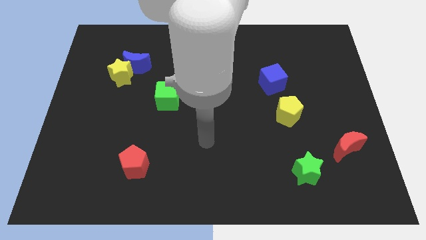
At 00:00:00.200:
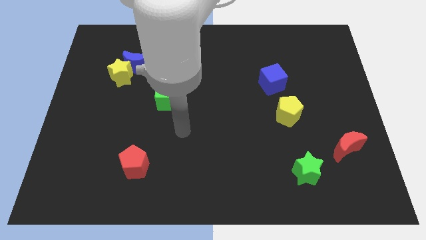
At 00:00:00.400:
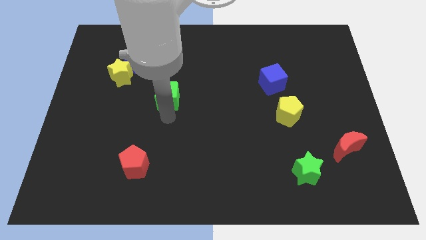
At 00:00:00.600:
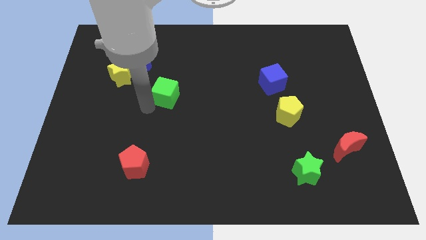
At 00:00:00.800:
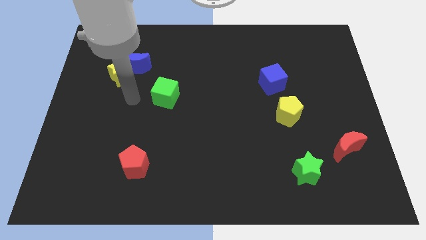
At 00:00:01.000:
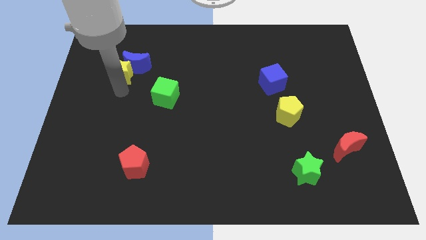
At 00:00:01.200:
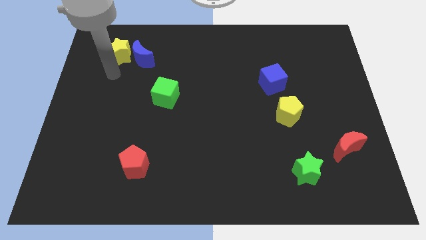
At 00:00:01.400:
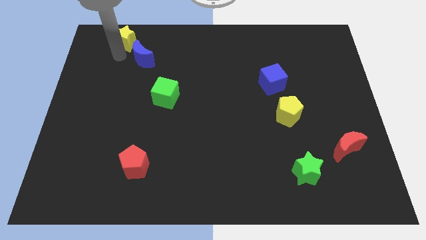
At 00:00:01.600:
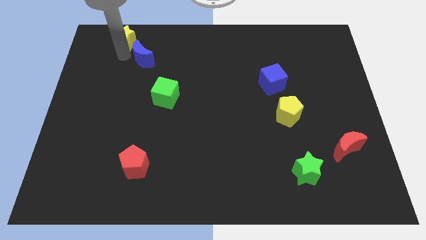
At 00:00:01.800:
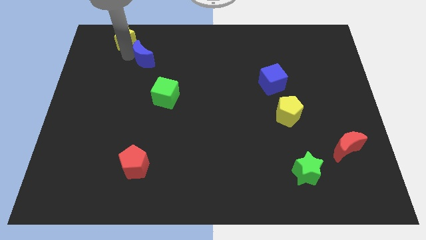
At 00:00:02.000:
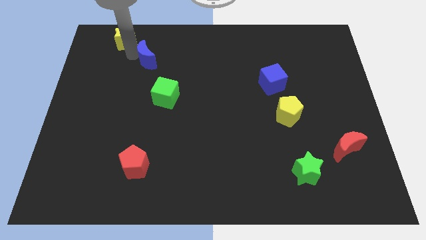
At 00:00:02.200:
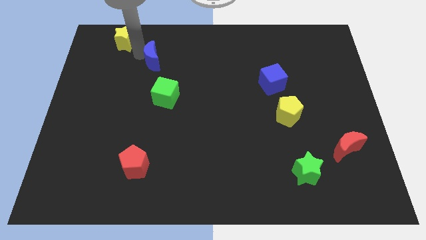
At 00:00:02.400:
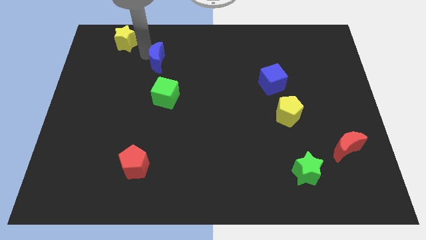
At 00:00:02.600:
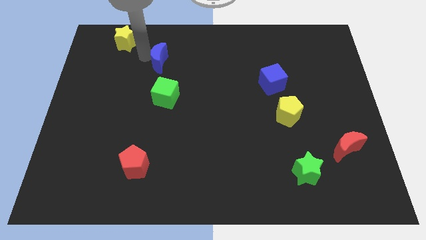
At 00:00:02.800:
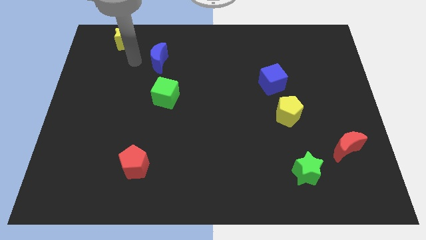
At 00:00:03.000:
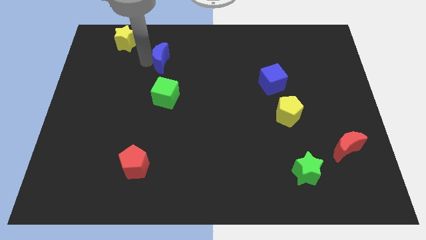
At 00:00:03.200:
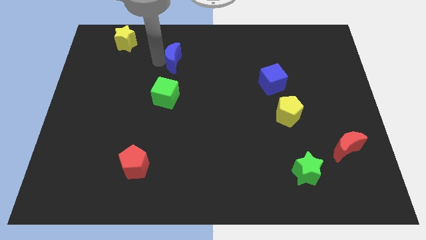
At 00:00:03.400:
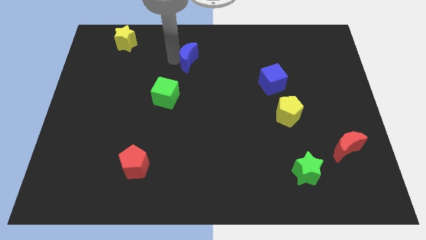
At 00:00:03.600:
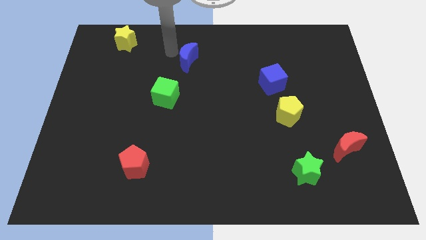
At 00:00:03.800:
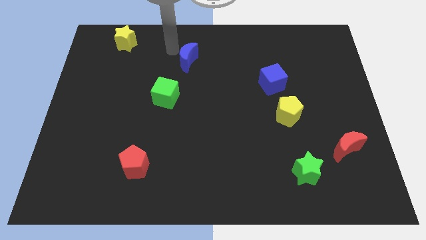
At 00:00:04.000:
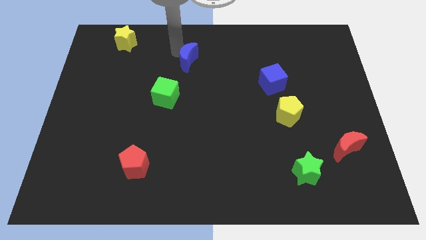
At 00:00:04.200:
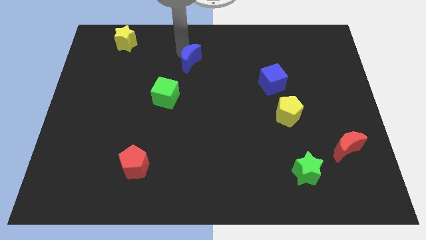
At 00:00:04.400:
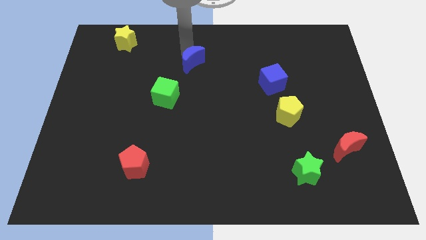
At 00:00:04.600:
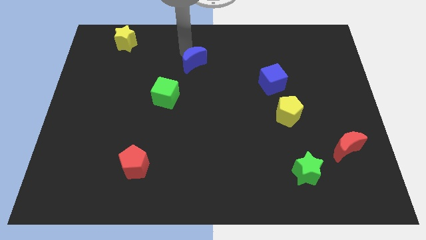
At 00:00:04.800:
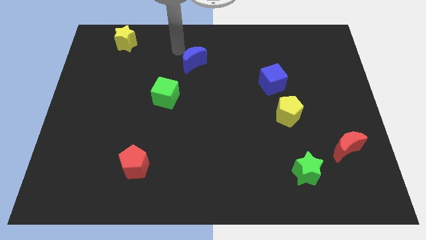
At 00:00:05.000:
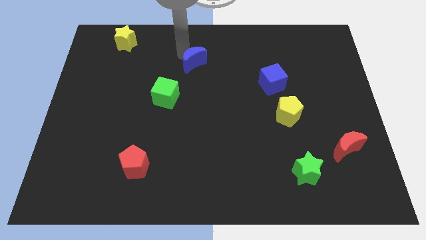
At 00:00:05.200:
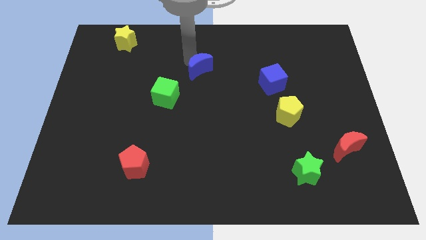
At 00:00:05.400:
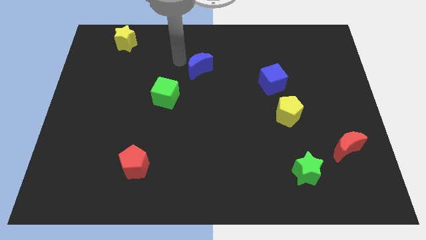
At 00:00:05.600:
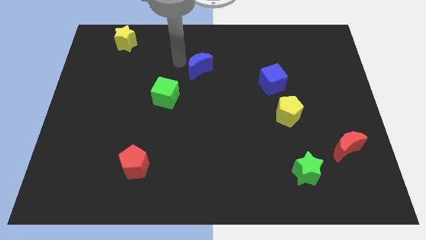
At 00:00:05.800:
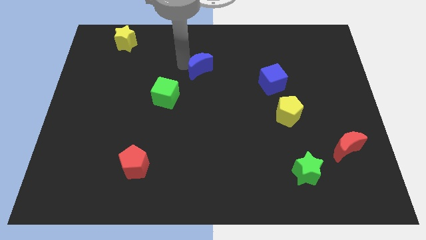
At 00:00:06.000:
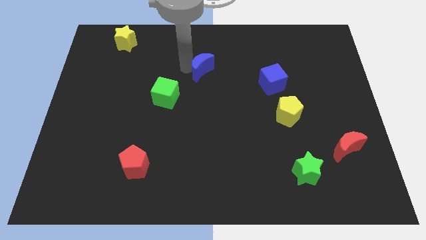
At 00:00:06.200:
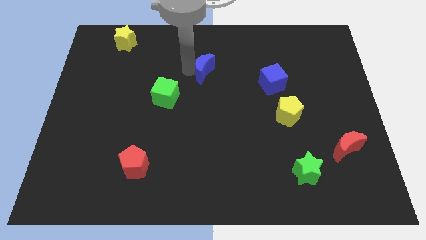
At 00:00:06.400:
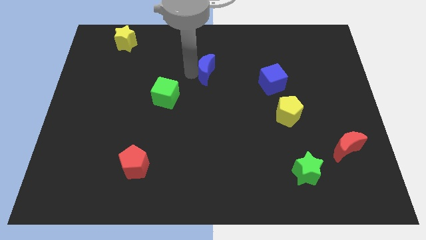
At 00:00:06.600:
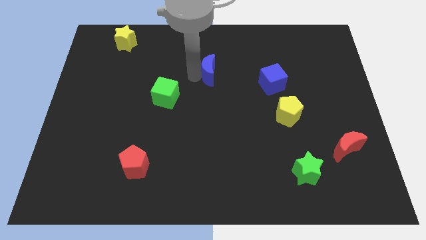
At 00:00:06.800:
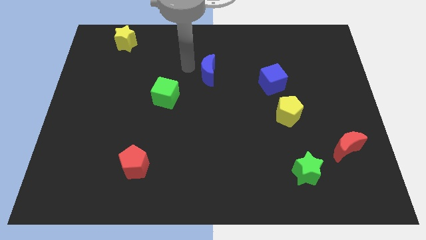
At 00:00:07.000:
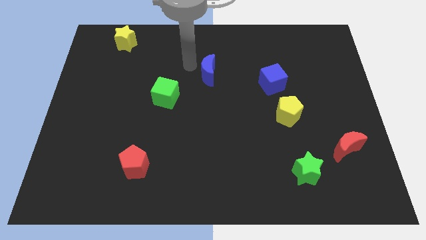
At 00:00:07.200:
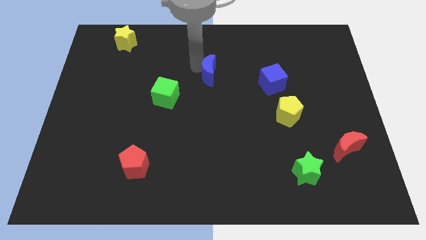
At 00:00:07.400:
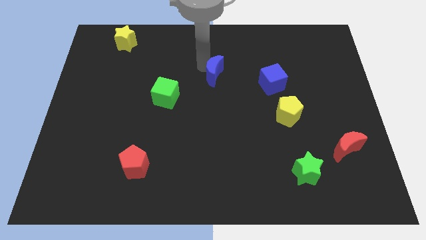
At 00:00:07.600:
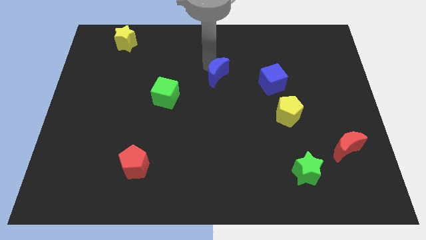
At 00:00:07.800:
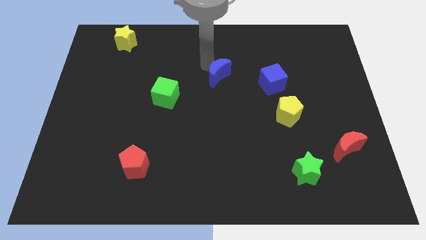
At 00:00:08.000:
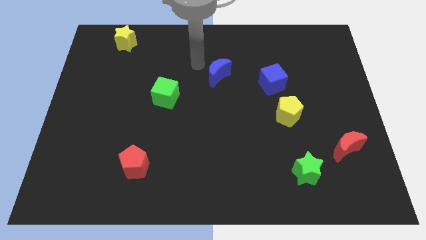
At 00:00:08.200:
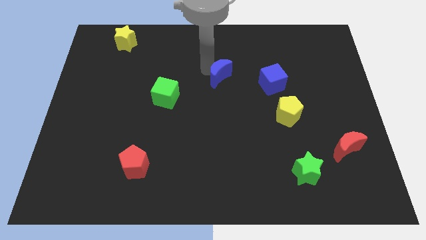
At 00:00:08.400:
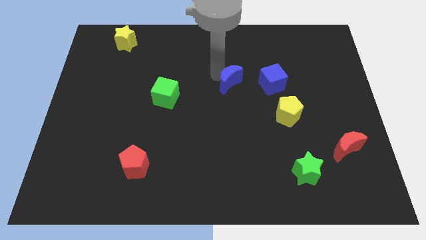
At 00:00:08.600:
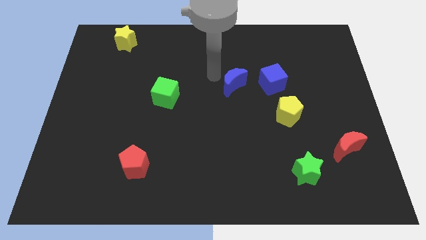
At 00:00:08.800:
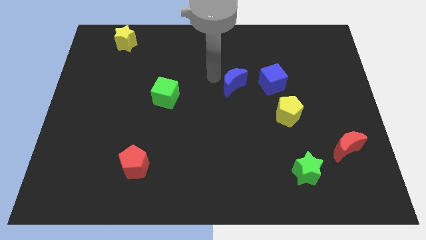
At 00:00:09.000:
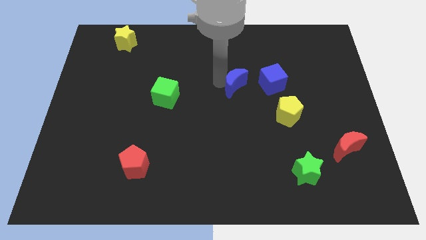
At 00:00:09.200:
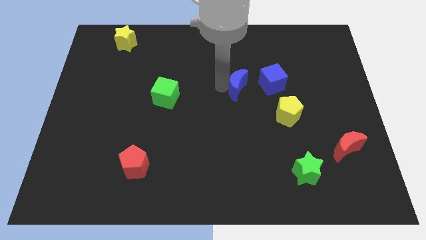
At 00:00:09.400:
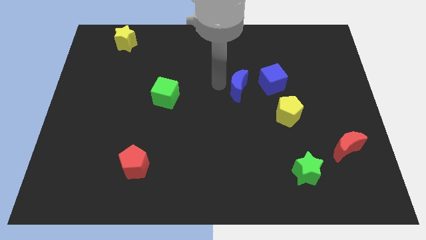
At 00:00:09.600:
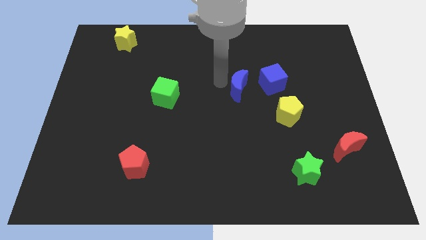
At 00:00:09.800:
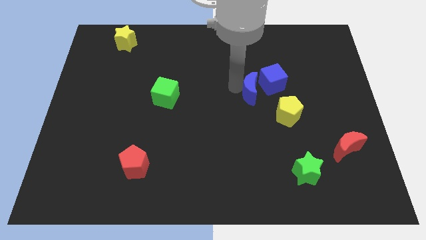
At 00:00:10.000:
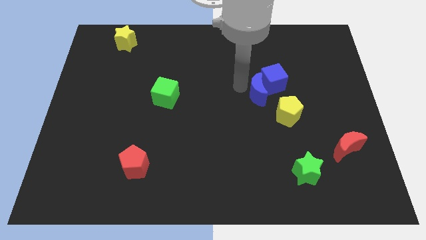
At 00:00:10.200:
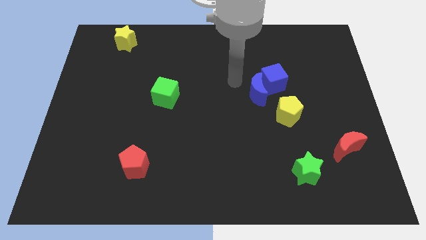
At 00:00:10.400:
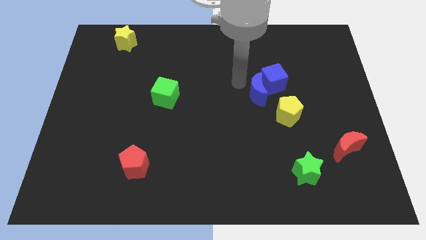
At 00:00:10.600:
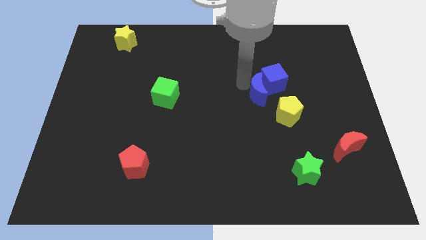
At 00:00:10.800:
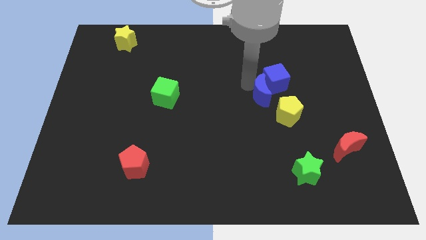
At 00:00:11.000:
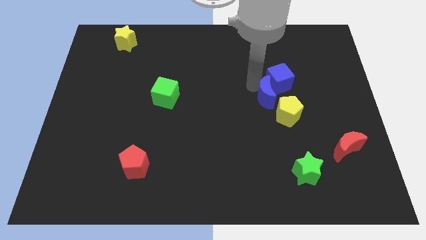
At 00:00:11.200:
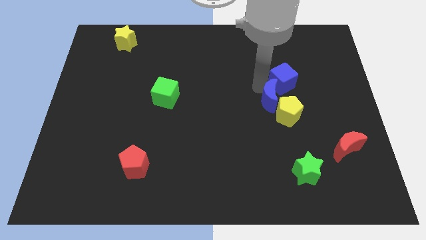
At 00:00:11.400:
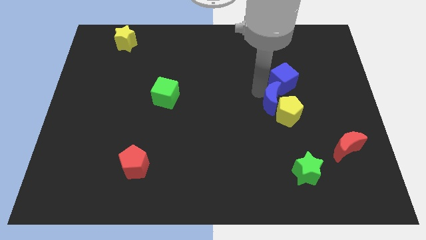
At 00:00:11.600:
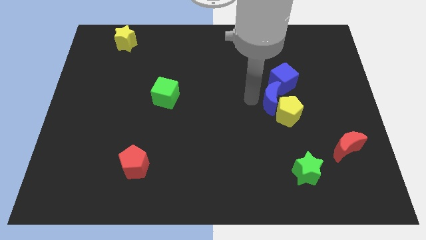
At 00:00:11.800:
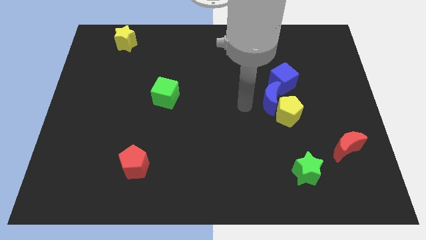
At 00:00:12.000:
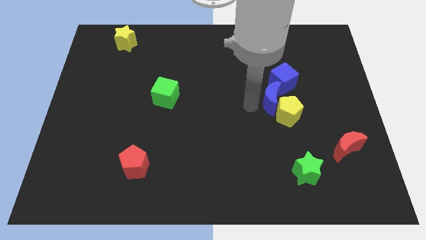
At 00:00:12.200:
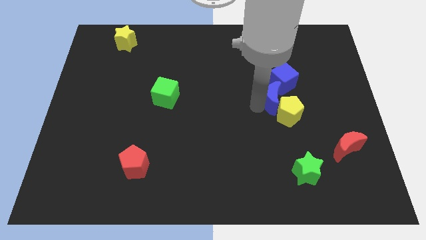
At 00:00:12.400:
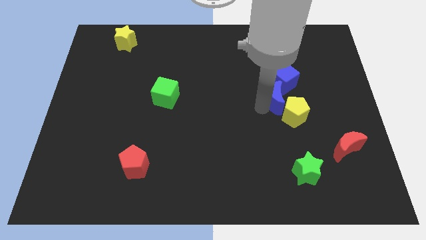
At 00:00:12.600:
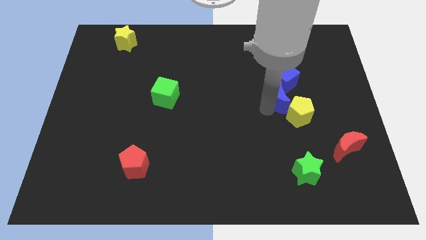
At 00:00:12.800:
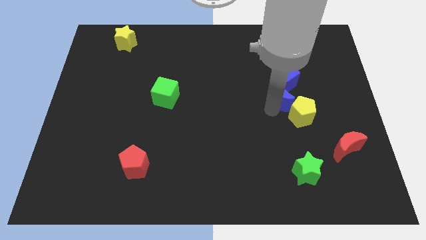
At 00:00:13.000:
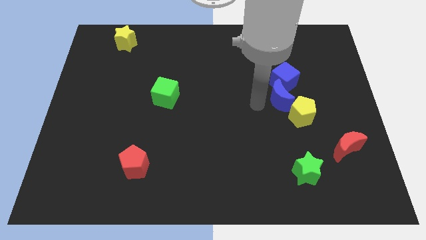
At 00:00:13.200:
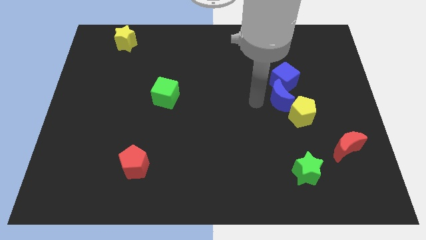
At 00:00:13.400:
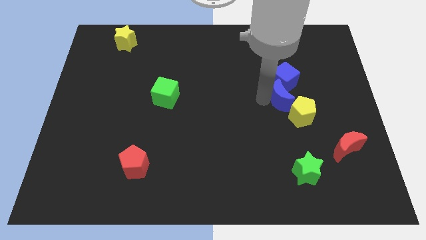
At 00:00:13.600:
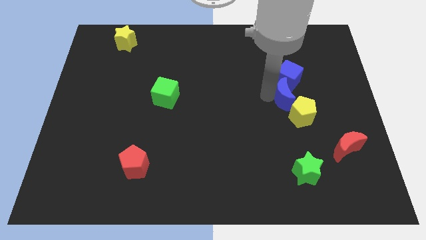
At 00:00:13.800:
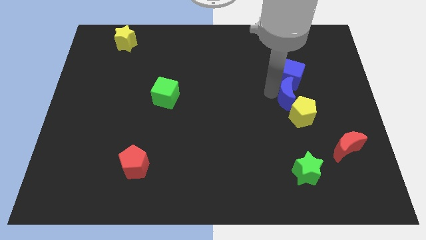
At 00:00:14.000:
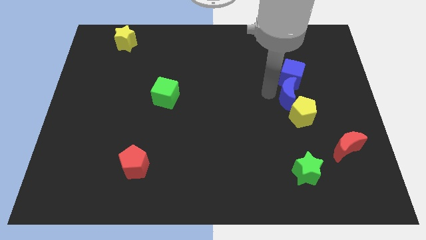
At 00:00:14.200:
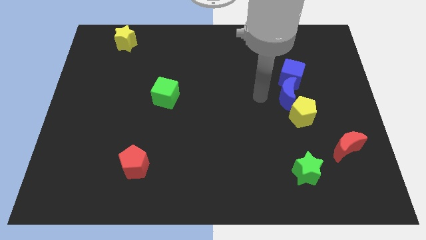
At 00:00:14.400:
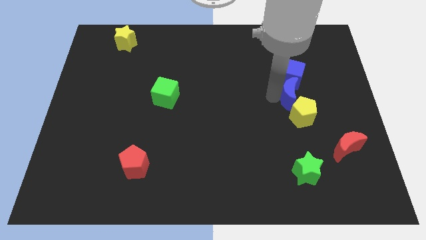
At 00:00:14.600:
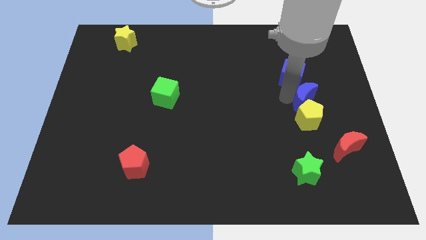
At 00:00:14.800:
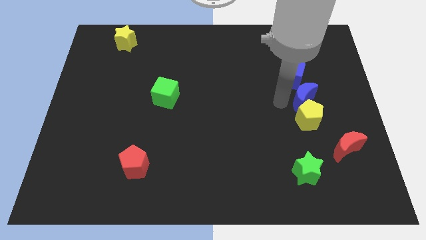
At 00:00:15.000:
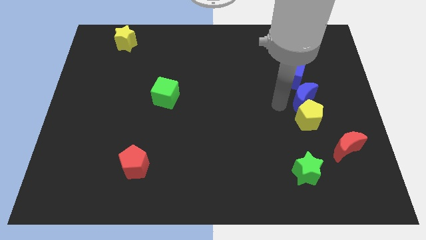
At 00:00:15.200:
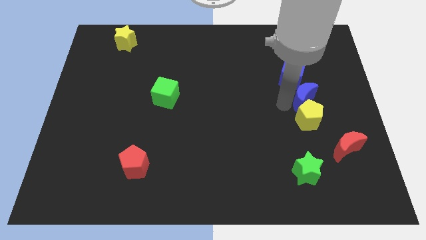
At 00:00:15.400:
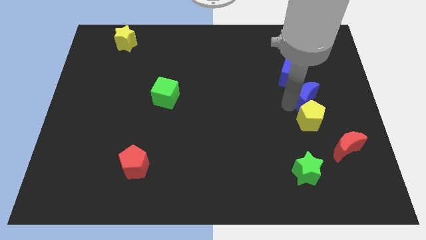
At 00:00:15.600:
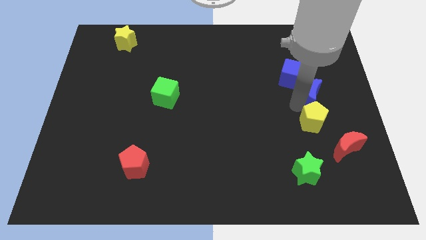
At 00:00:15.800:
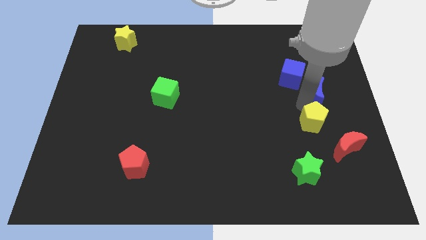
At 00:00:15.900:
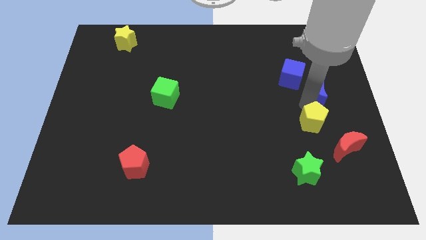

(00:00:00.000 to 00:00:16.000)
slide the blue moon to the right side
